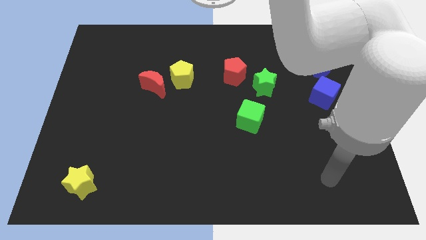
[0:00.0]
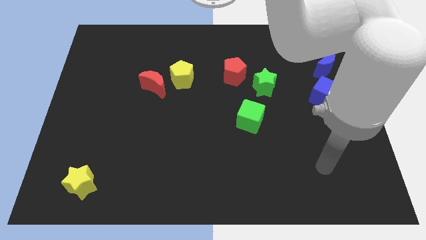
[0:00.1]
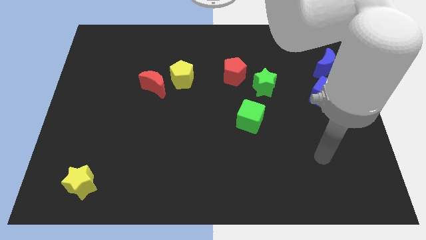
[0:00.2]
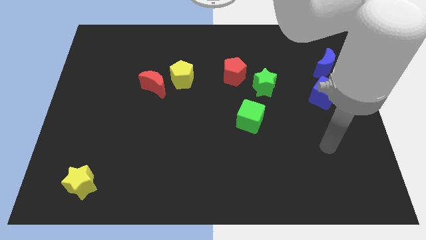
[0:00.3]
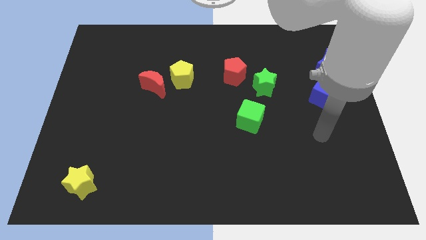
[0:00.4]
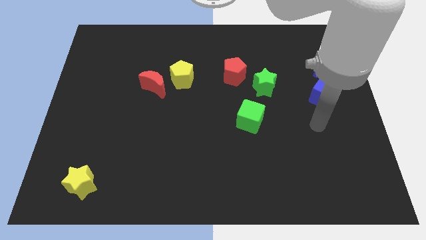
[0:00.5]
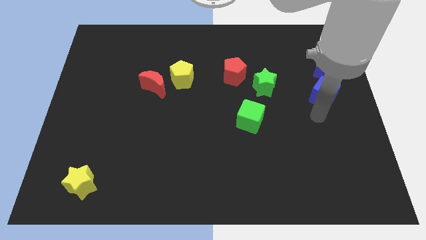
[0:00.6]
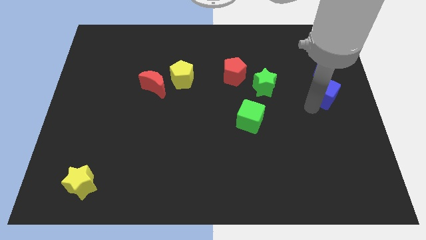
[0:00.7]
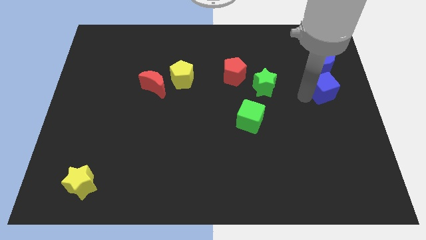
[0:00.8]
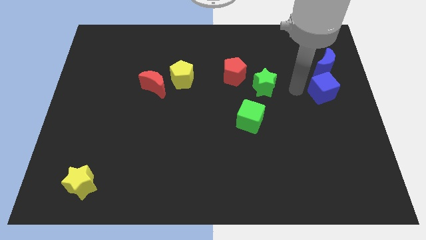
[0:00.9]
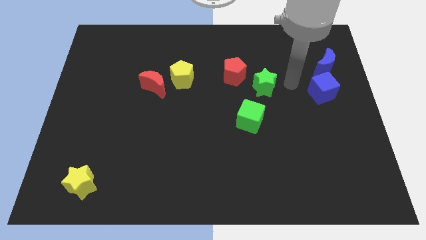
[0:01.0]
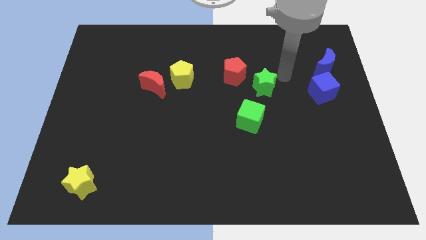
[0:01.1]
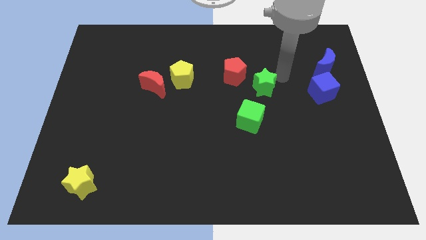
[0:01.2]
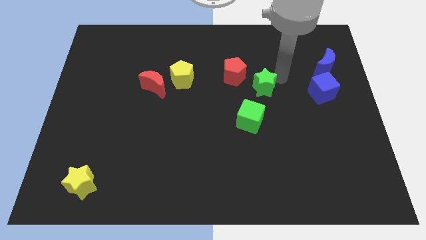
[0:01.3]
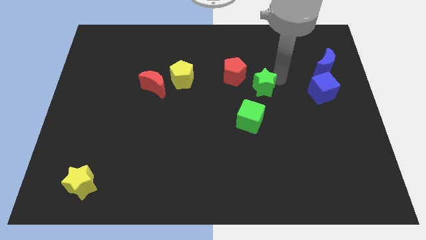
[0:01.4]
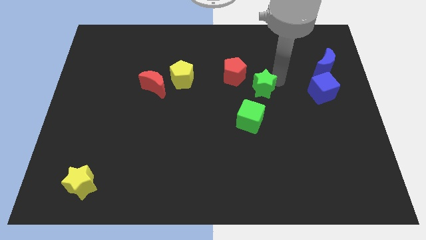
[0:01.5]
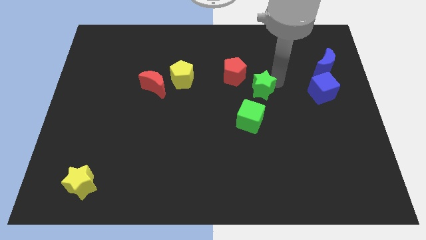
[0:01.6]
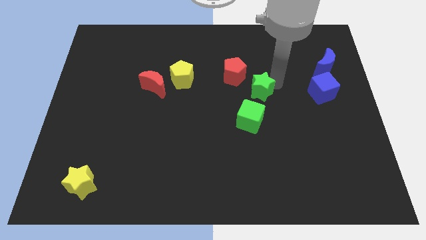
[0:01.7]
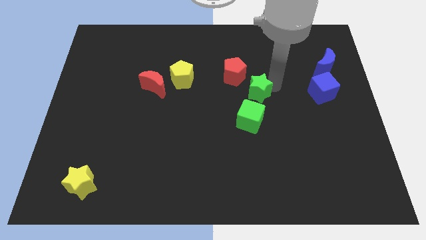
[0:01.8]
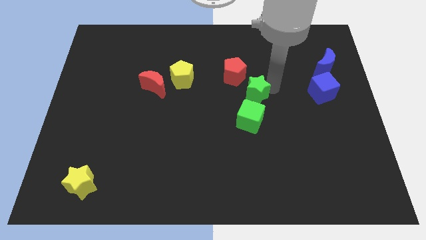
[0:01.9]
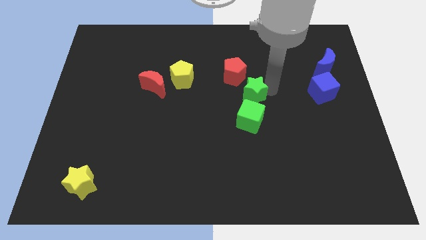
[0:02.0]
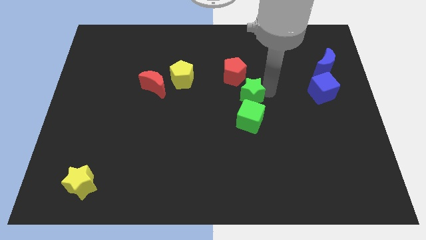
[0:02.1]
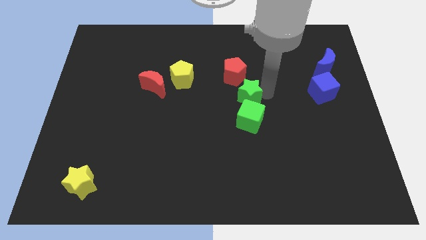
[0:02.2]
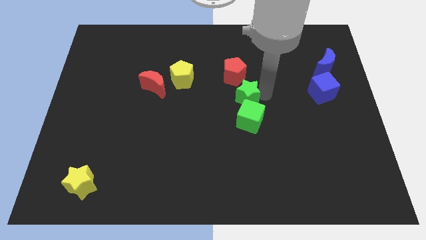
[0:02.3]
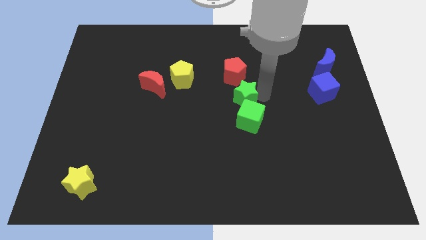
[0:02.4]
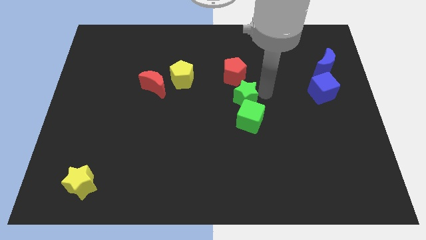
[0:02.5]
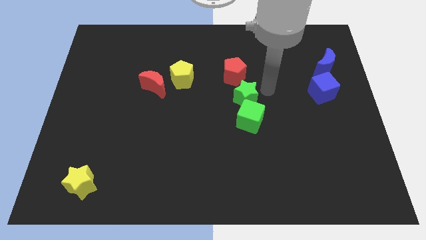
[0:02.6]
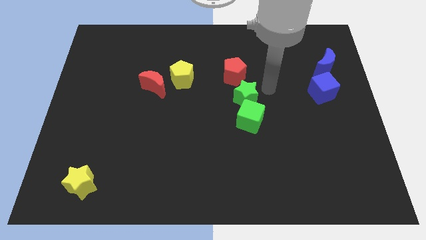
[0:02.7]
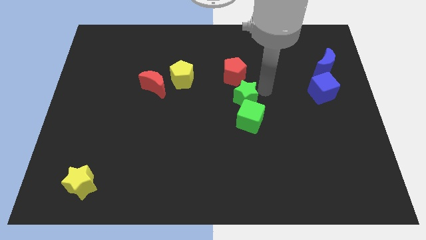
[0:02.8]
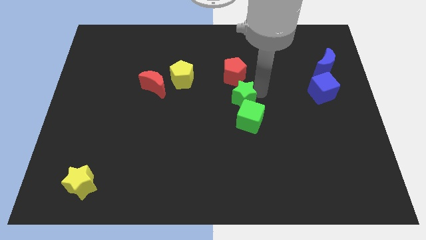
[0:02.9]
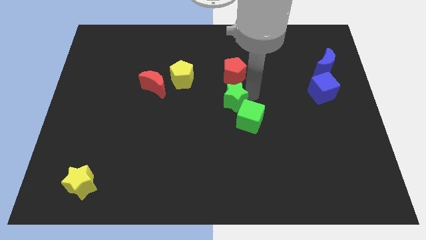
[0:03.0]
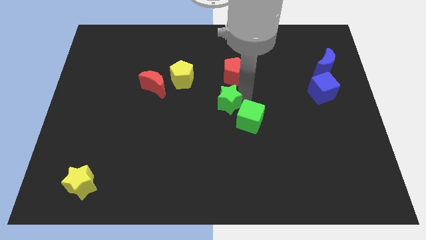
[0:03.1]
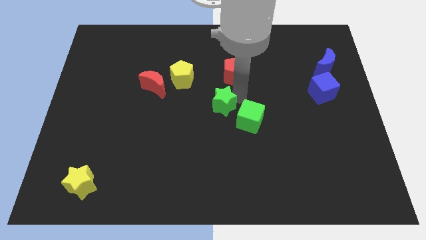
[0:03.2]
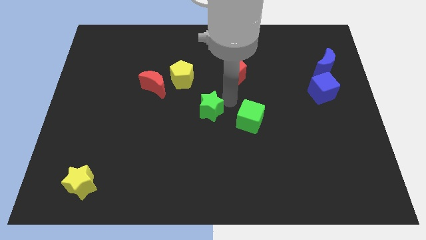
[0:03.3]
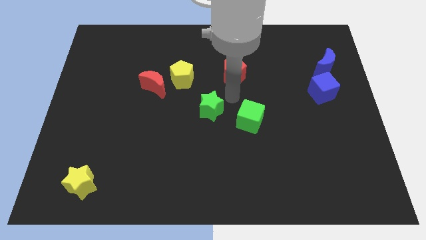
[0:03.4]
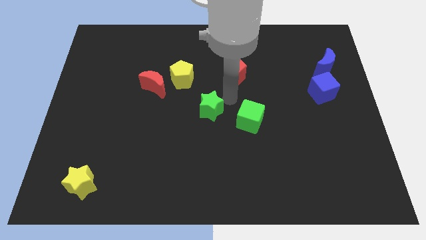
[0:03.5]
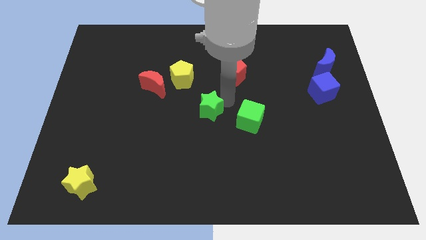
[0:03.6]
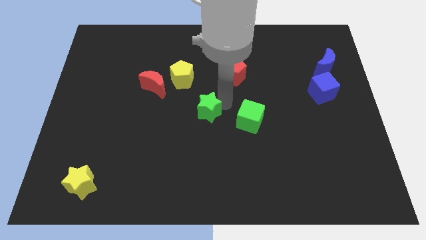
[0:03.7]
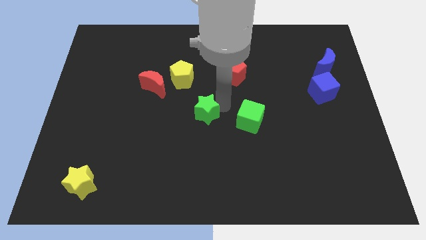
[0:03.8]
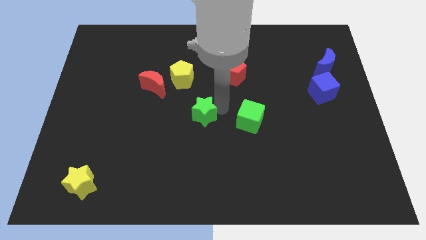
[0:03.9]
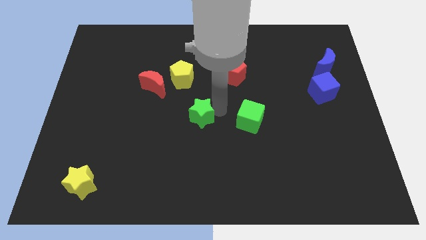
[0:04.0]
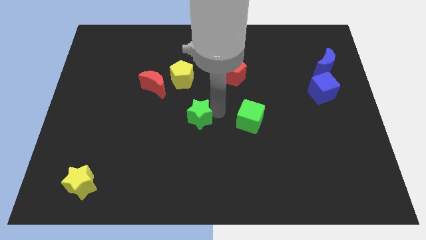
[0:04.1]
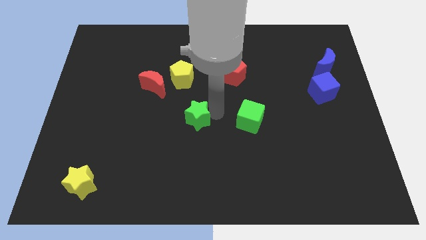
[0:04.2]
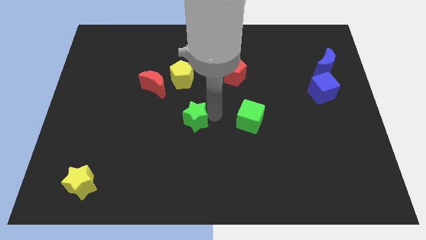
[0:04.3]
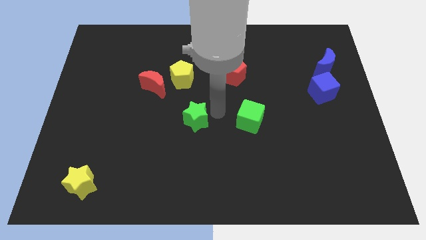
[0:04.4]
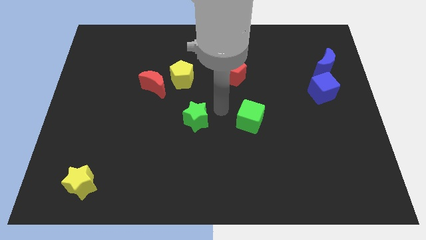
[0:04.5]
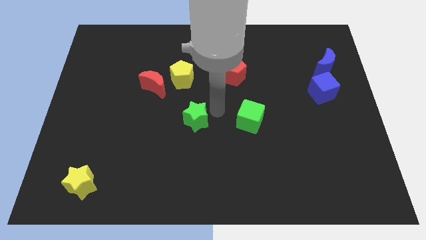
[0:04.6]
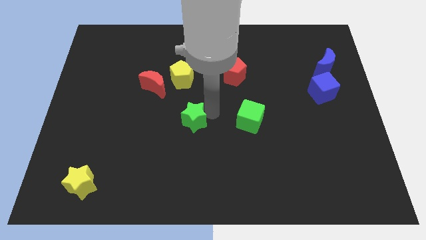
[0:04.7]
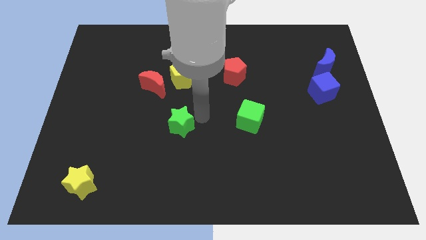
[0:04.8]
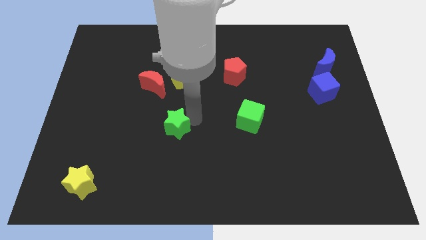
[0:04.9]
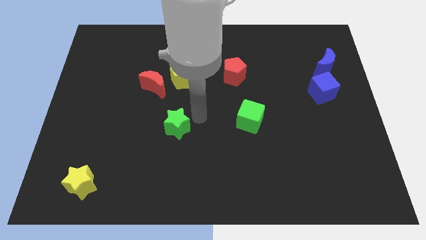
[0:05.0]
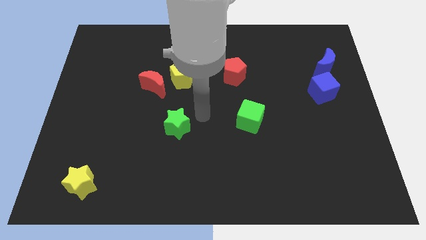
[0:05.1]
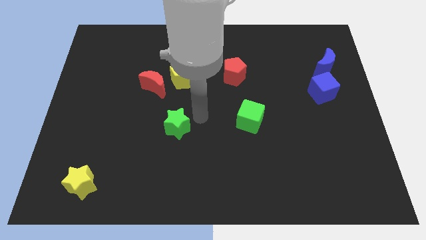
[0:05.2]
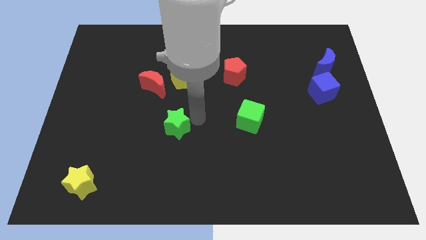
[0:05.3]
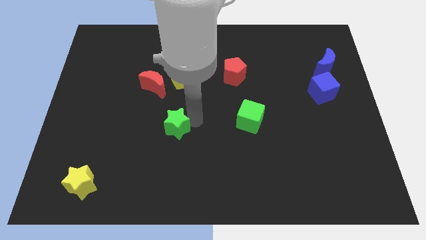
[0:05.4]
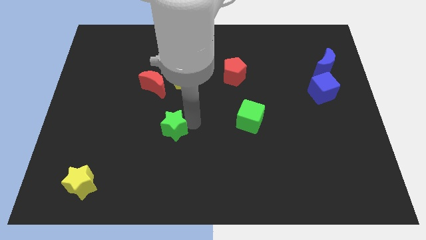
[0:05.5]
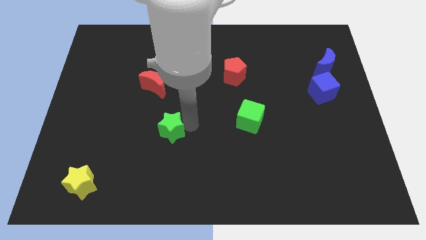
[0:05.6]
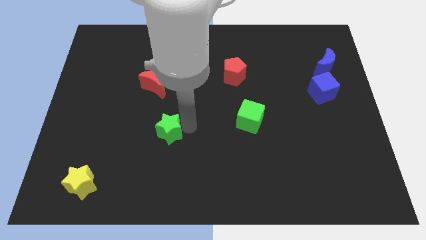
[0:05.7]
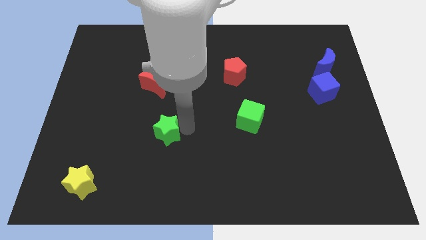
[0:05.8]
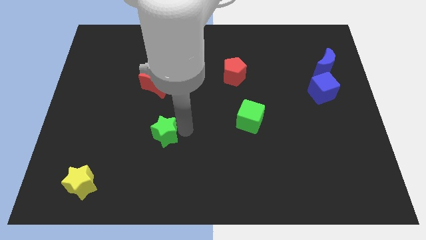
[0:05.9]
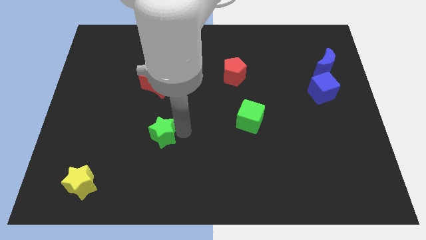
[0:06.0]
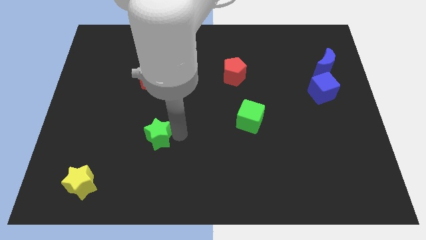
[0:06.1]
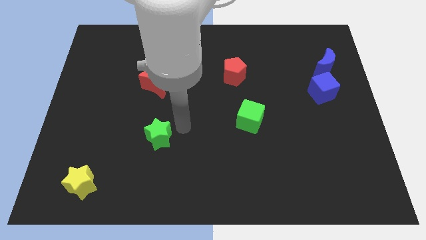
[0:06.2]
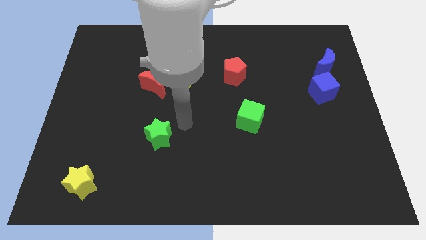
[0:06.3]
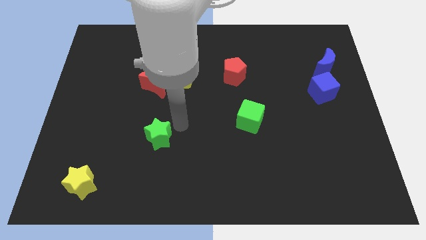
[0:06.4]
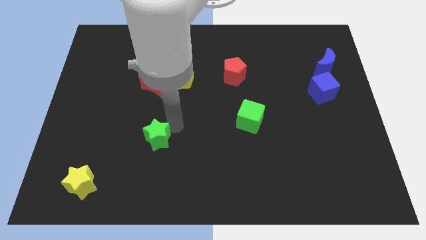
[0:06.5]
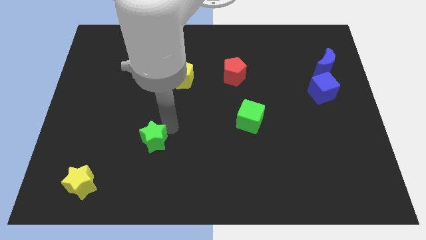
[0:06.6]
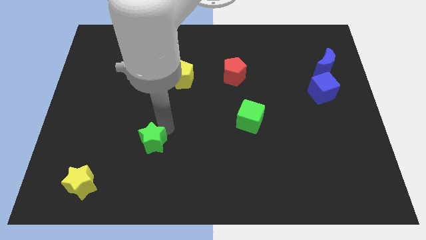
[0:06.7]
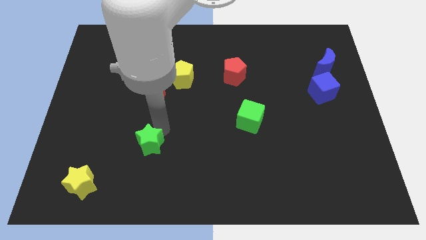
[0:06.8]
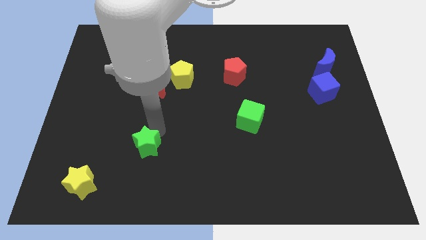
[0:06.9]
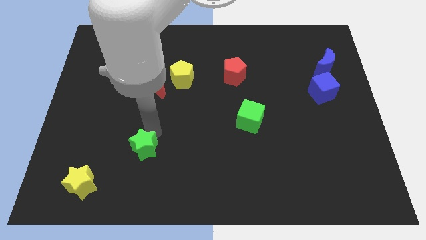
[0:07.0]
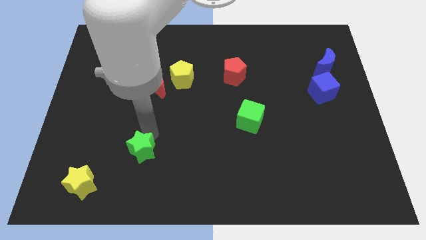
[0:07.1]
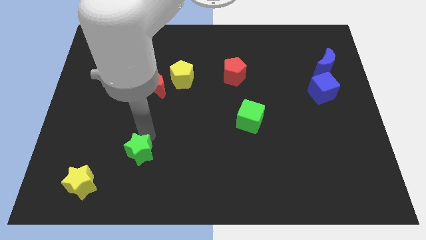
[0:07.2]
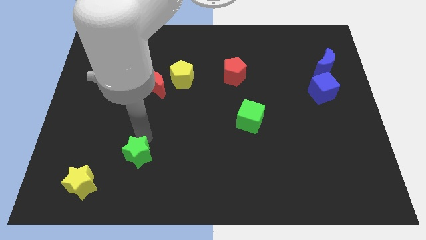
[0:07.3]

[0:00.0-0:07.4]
put the green star diagonally up and to the right of the yellow star
